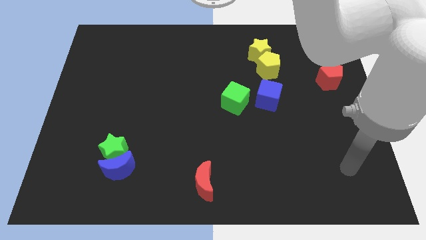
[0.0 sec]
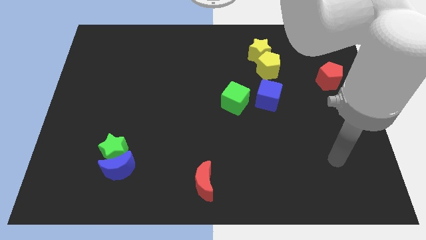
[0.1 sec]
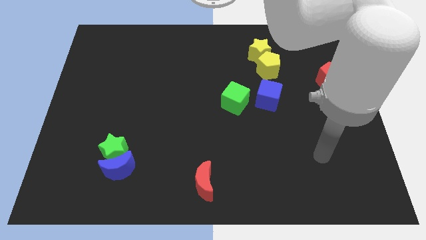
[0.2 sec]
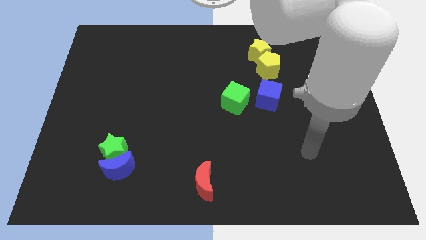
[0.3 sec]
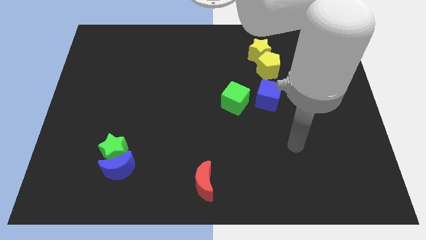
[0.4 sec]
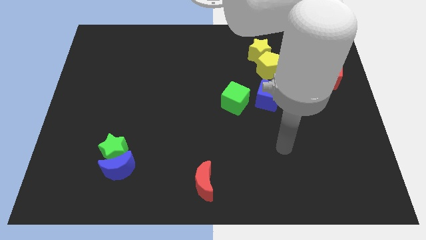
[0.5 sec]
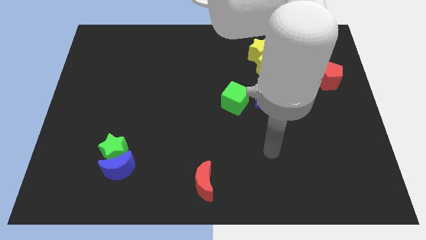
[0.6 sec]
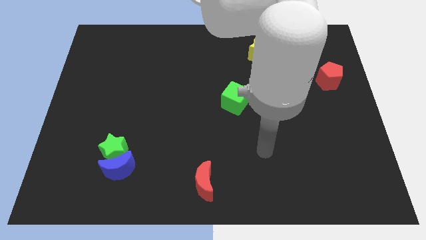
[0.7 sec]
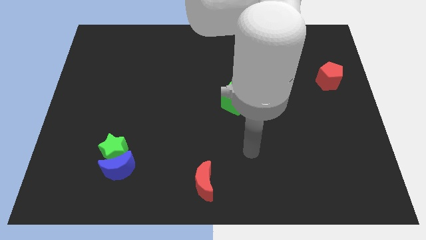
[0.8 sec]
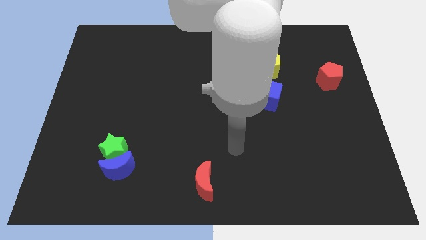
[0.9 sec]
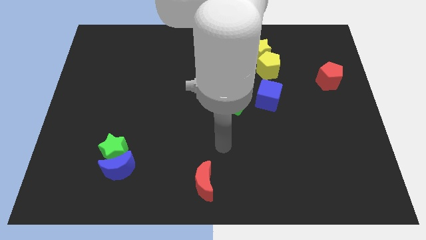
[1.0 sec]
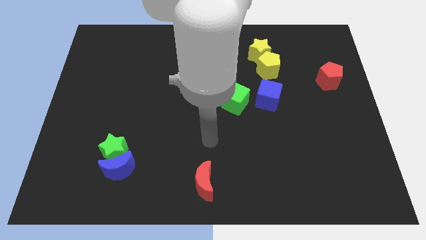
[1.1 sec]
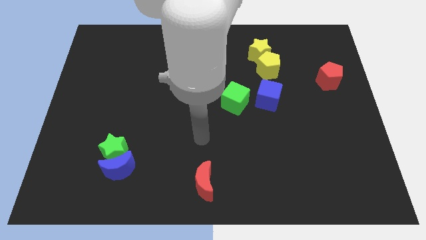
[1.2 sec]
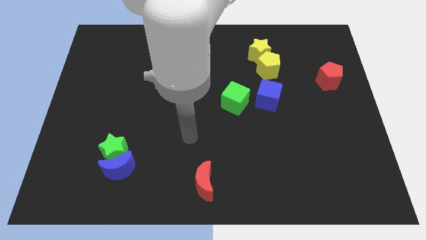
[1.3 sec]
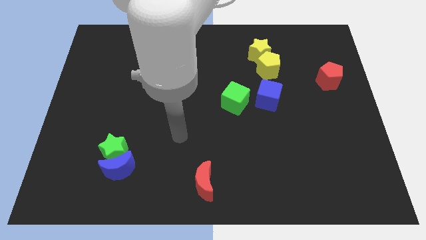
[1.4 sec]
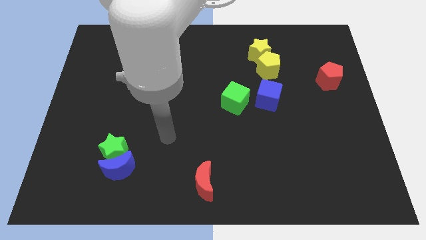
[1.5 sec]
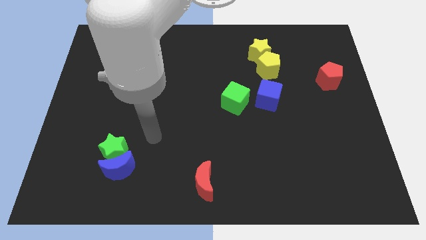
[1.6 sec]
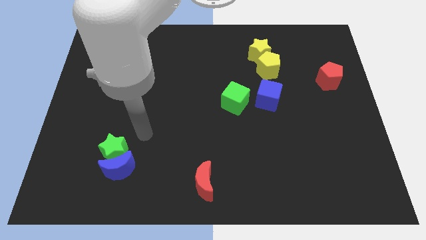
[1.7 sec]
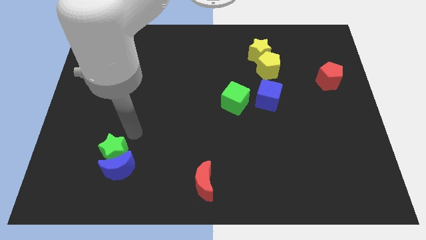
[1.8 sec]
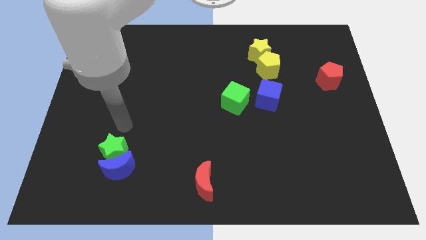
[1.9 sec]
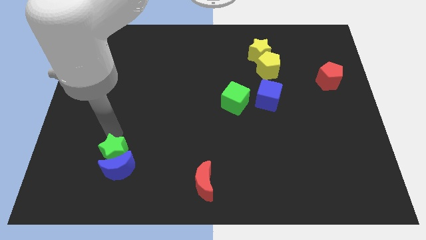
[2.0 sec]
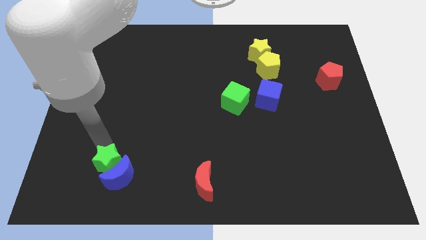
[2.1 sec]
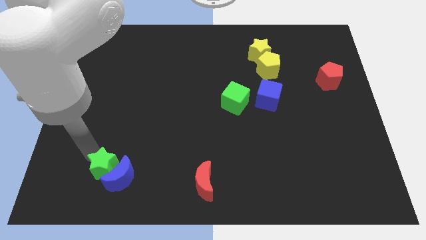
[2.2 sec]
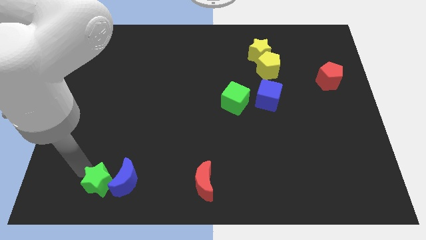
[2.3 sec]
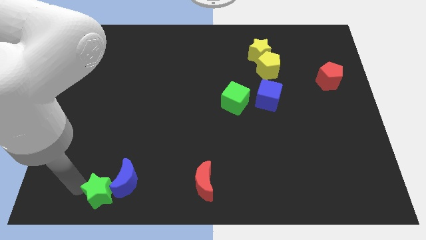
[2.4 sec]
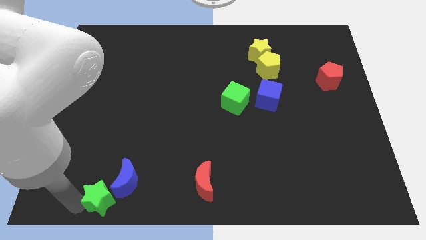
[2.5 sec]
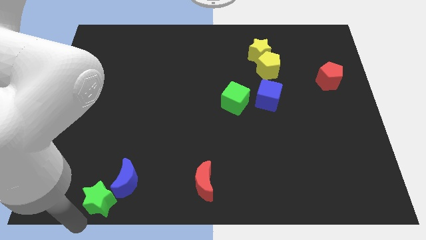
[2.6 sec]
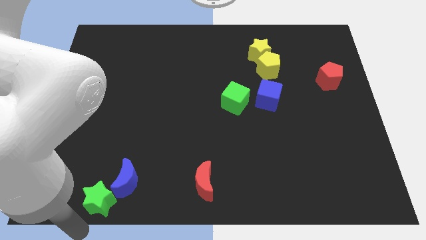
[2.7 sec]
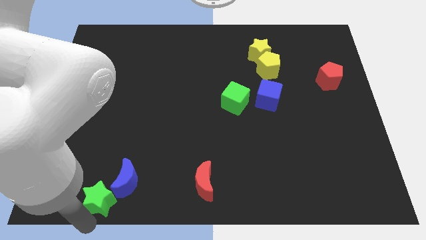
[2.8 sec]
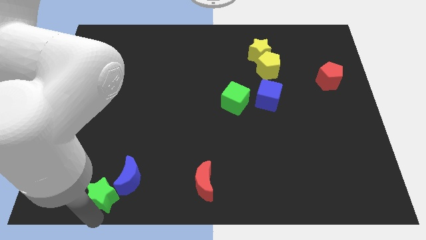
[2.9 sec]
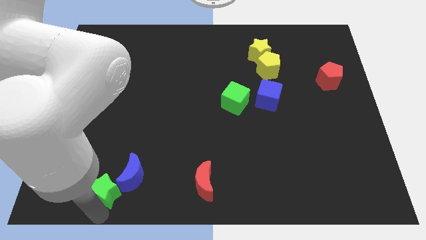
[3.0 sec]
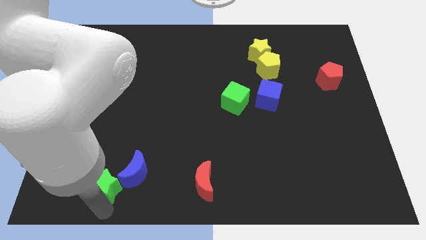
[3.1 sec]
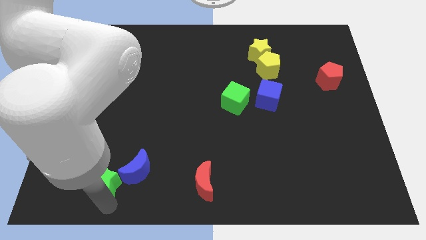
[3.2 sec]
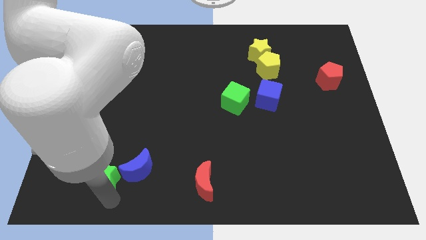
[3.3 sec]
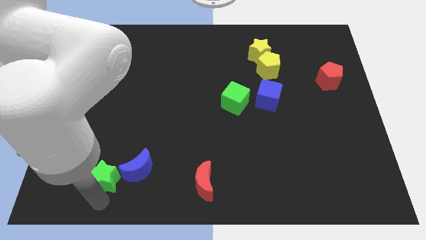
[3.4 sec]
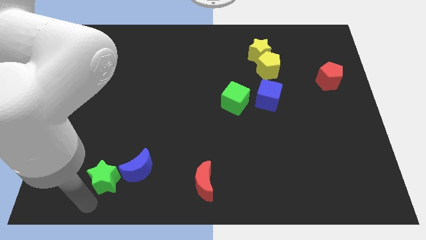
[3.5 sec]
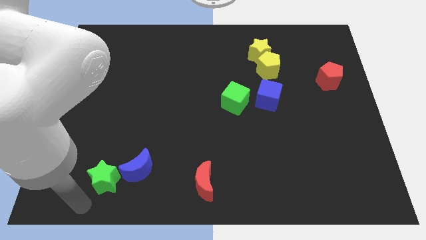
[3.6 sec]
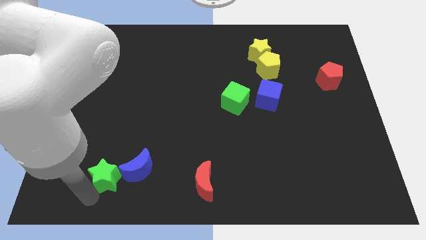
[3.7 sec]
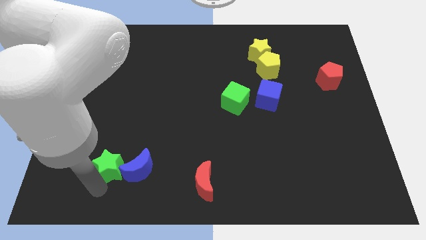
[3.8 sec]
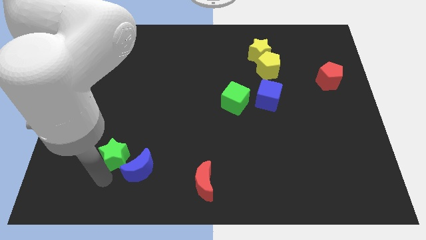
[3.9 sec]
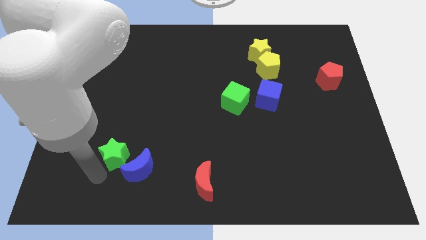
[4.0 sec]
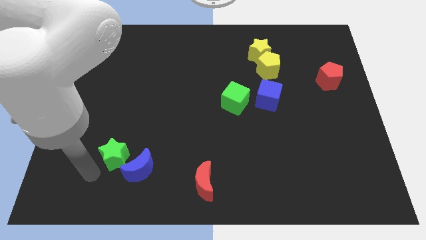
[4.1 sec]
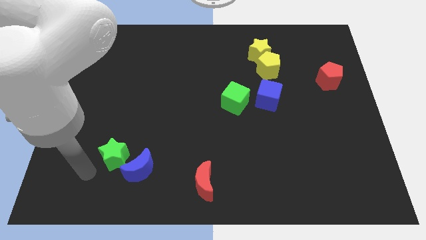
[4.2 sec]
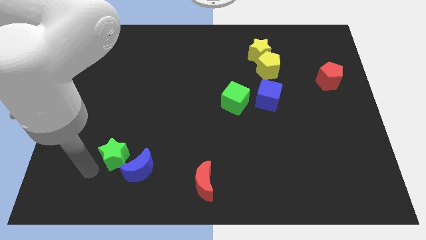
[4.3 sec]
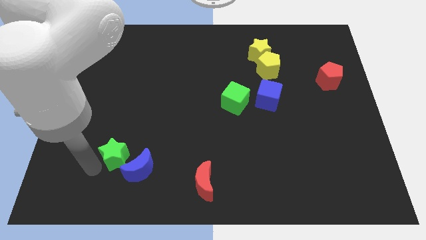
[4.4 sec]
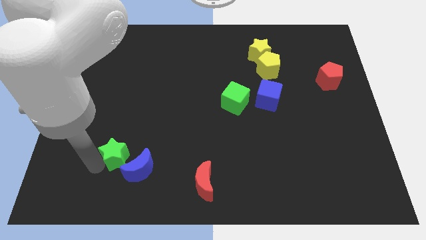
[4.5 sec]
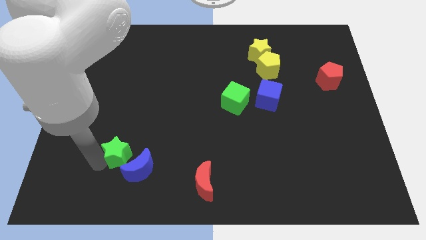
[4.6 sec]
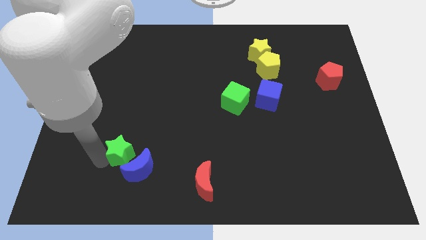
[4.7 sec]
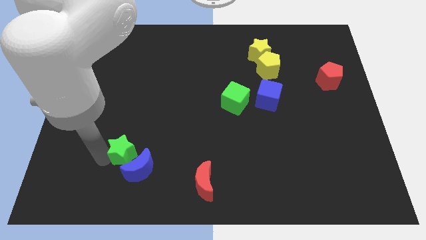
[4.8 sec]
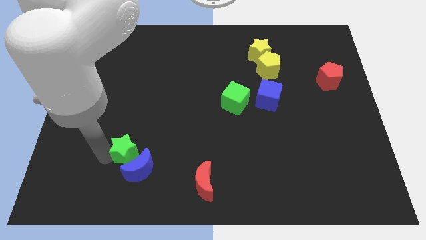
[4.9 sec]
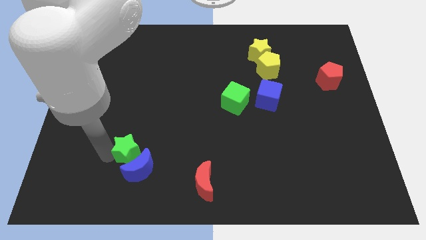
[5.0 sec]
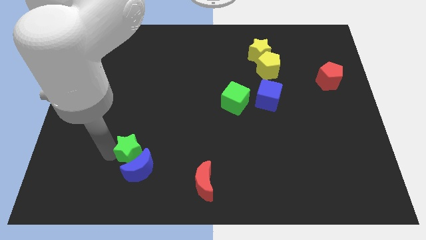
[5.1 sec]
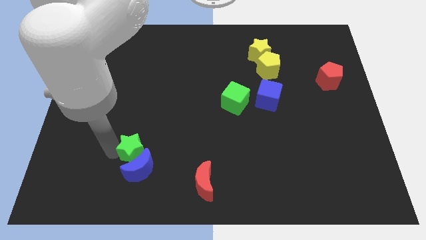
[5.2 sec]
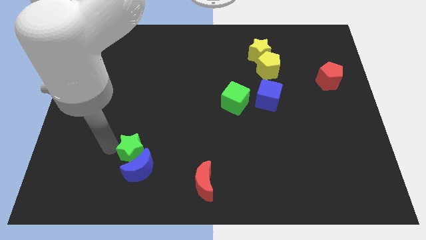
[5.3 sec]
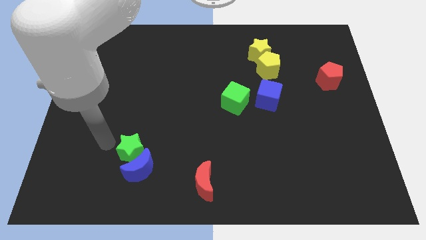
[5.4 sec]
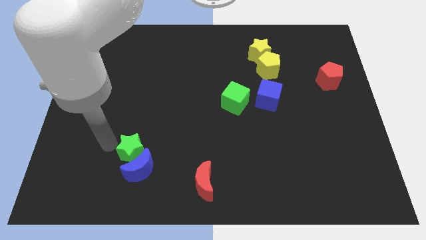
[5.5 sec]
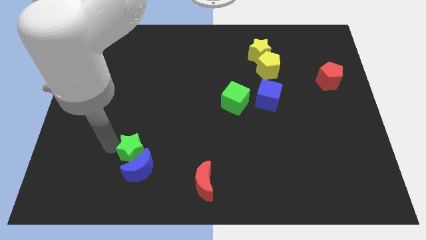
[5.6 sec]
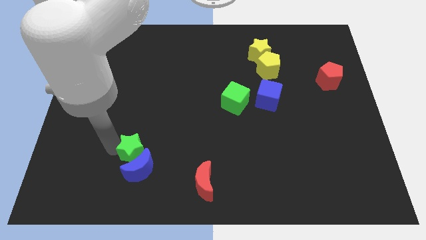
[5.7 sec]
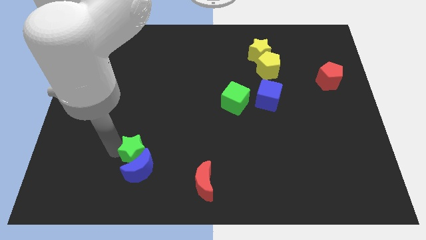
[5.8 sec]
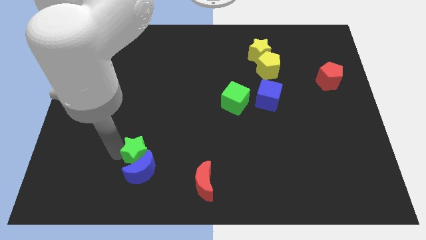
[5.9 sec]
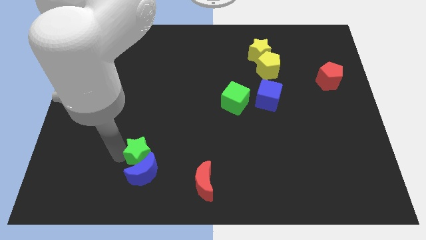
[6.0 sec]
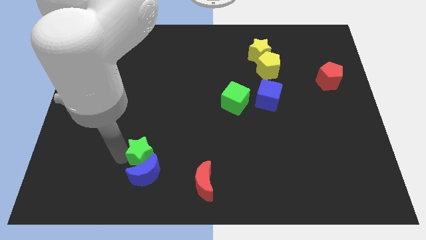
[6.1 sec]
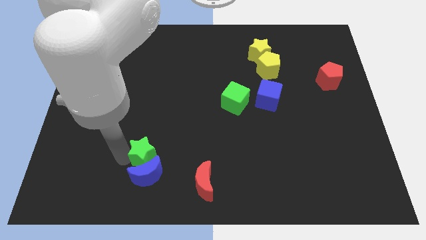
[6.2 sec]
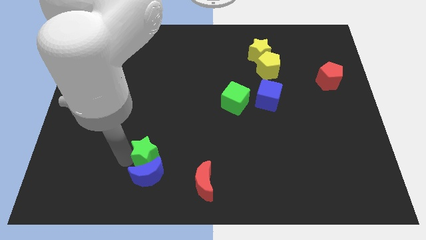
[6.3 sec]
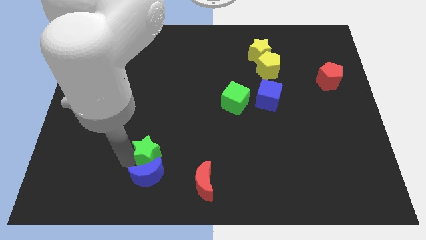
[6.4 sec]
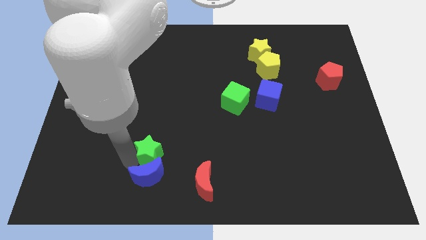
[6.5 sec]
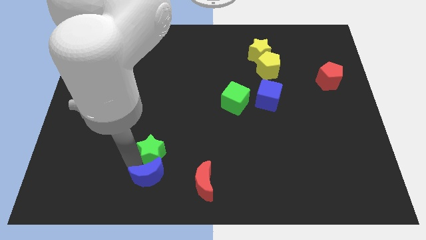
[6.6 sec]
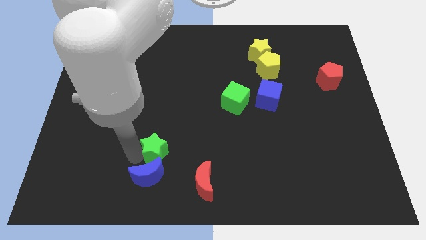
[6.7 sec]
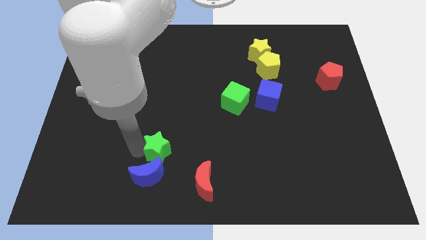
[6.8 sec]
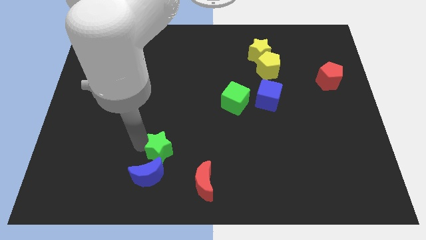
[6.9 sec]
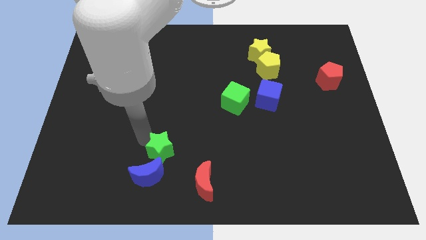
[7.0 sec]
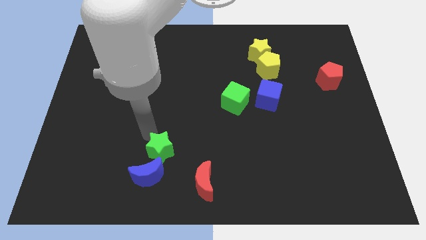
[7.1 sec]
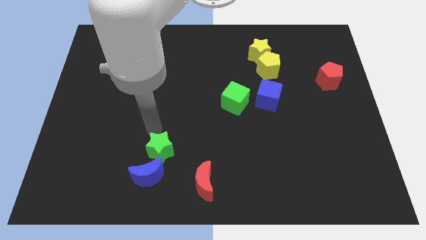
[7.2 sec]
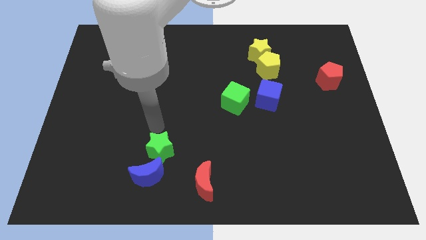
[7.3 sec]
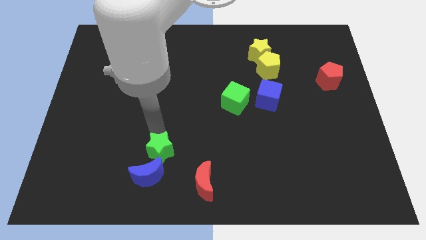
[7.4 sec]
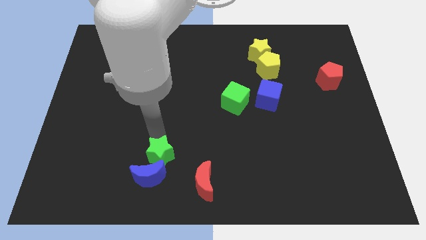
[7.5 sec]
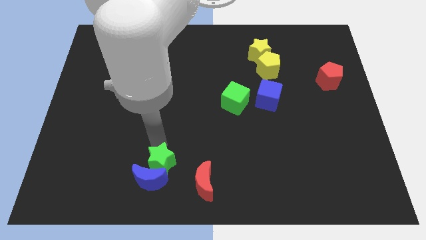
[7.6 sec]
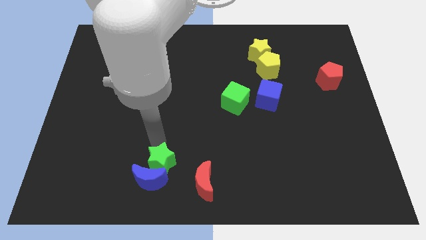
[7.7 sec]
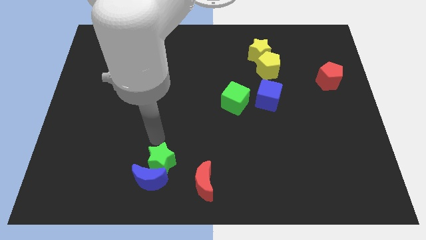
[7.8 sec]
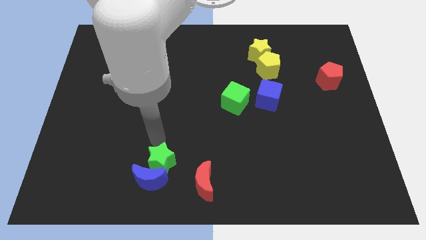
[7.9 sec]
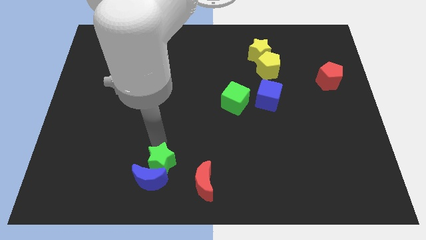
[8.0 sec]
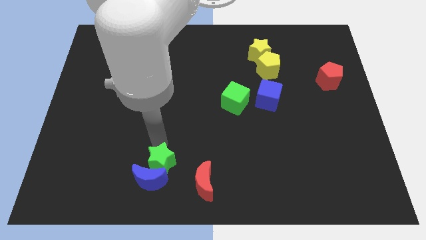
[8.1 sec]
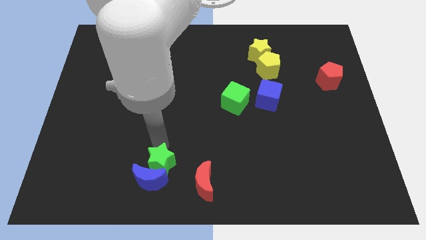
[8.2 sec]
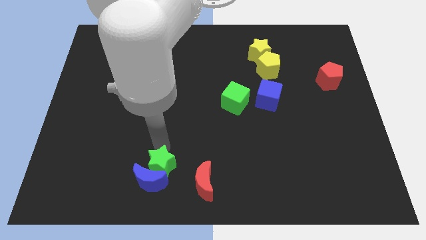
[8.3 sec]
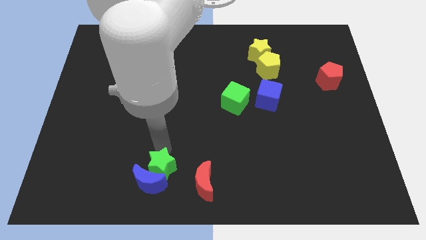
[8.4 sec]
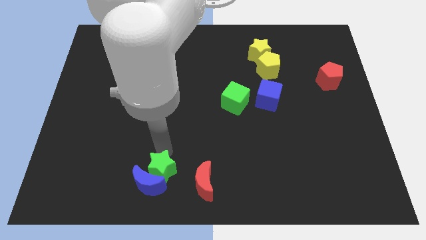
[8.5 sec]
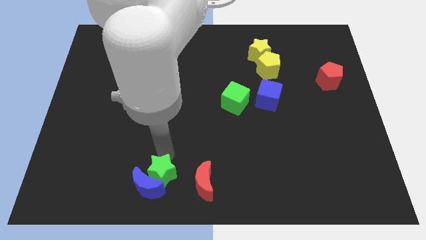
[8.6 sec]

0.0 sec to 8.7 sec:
move the green star to the bottom side
